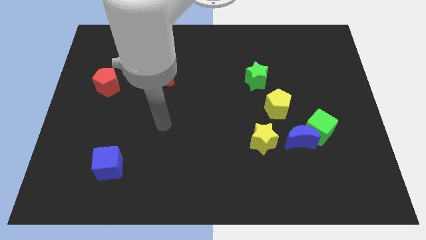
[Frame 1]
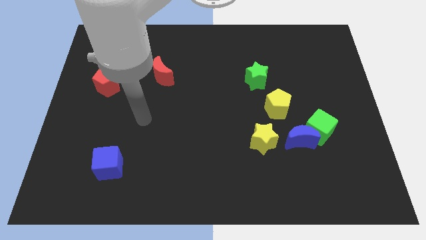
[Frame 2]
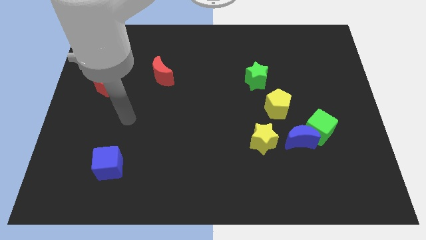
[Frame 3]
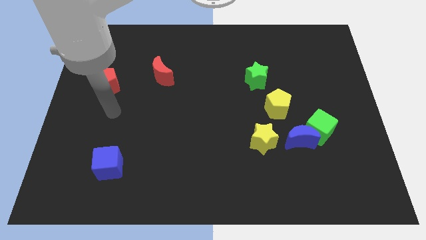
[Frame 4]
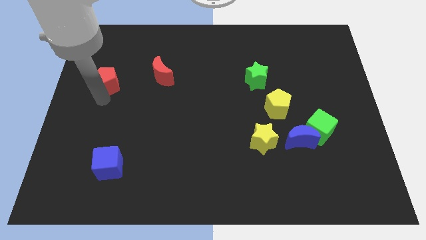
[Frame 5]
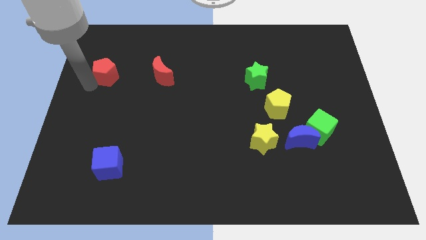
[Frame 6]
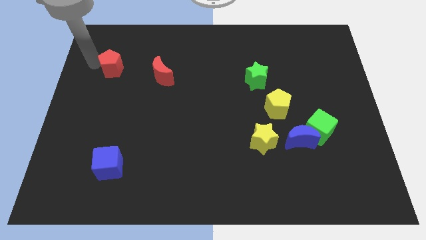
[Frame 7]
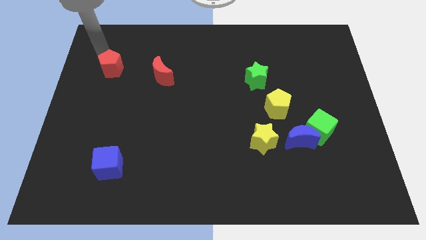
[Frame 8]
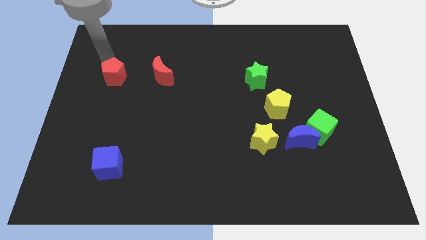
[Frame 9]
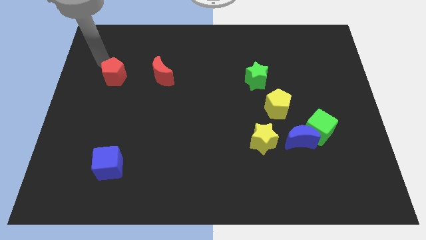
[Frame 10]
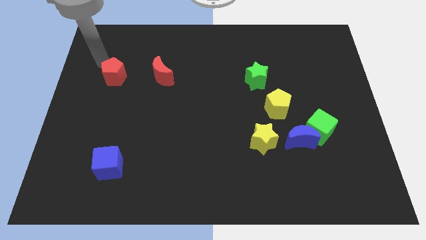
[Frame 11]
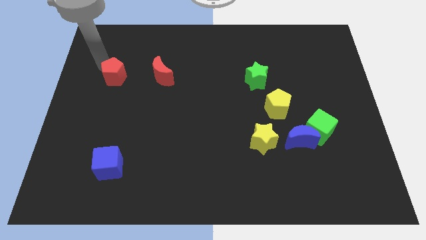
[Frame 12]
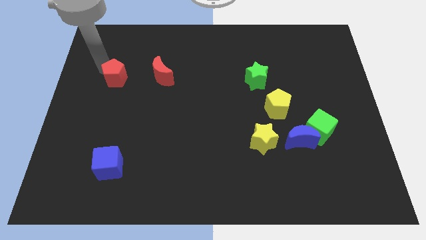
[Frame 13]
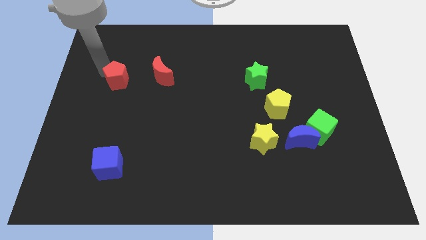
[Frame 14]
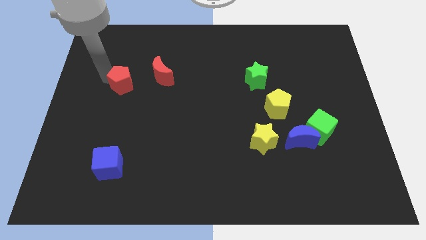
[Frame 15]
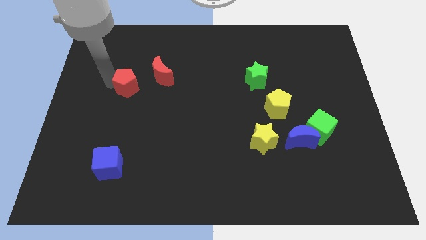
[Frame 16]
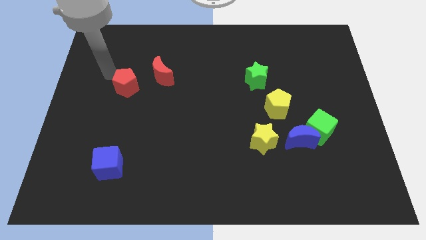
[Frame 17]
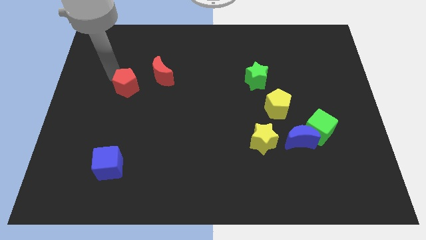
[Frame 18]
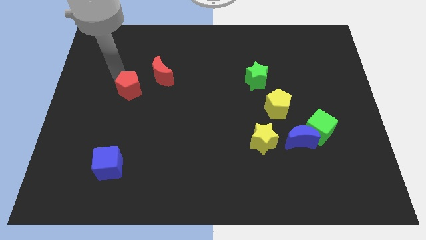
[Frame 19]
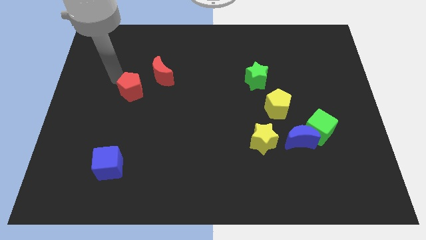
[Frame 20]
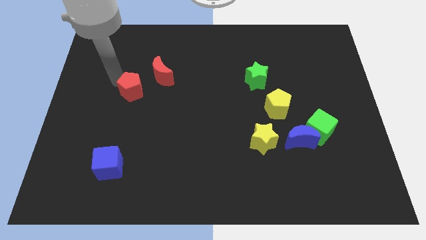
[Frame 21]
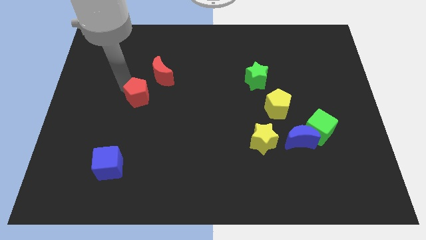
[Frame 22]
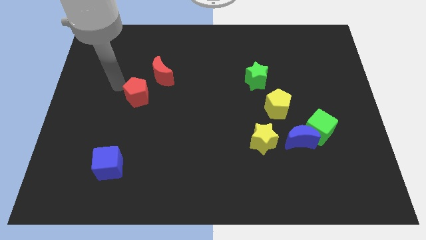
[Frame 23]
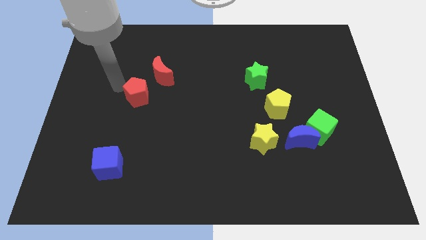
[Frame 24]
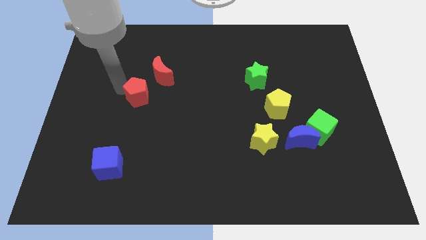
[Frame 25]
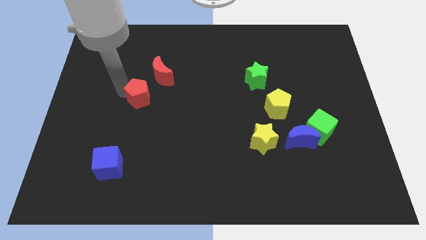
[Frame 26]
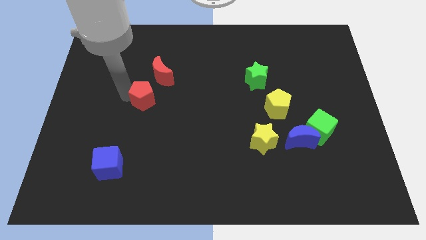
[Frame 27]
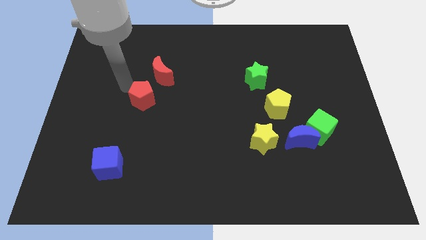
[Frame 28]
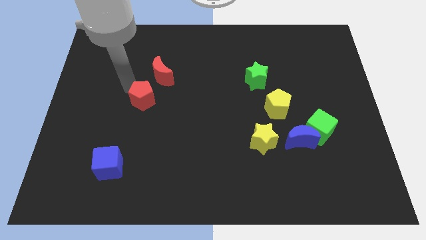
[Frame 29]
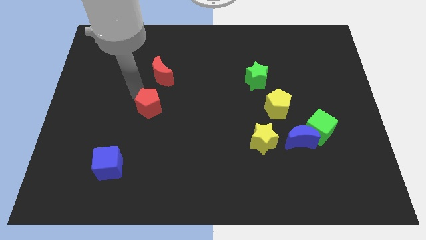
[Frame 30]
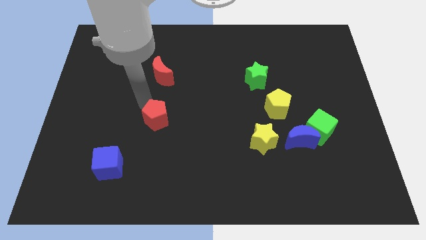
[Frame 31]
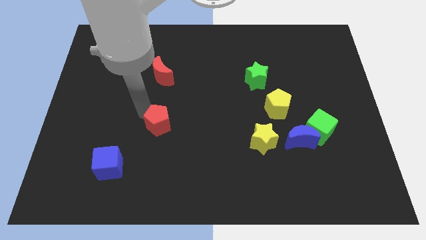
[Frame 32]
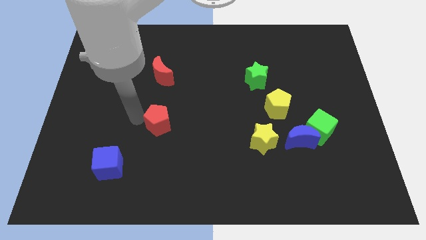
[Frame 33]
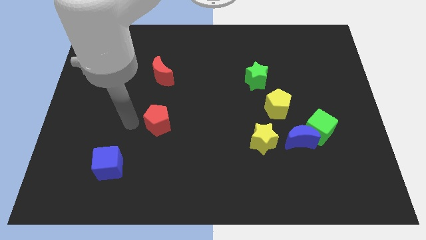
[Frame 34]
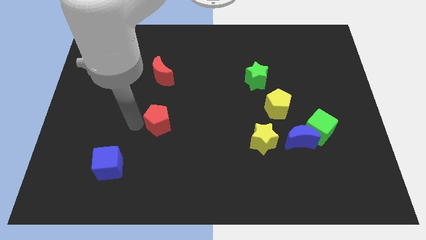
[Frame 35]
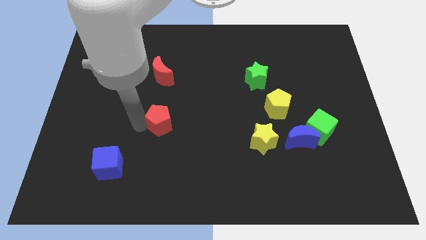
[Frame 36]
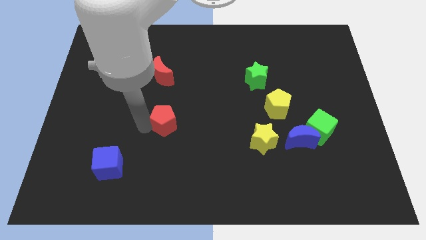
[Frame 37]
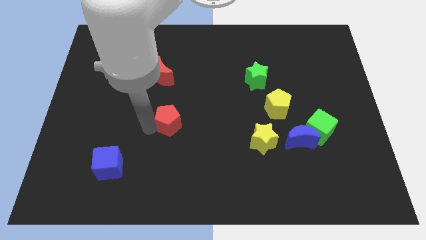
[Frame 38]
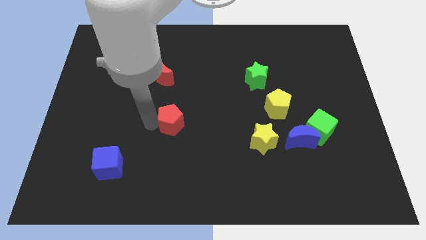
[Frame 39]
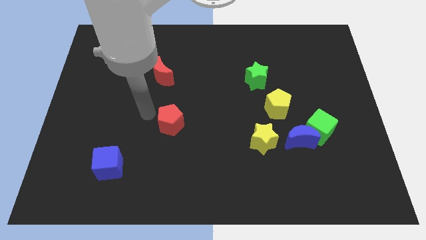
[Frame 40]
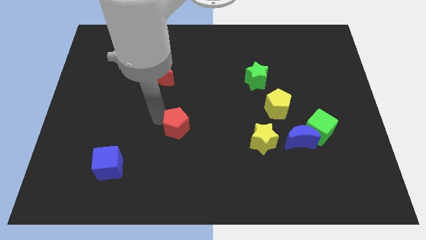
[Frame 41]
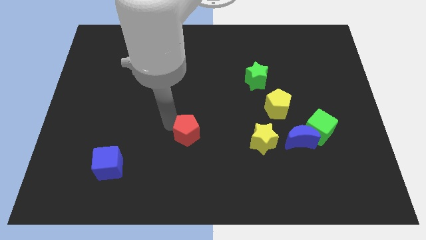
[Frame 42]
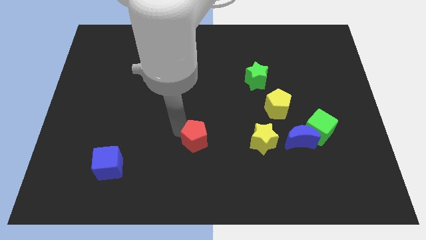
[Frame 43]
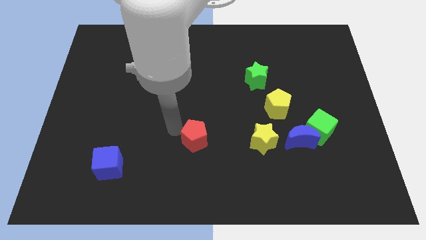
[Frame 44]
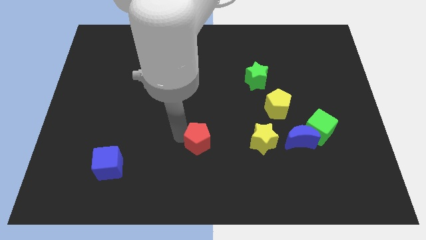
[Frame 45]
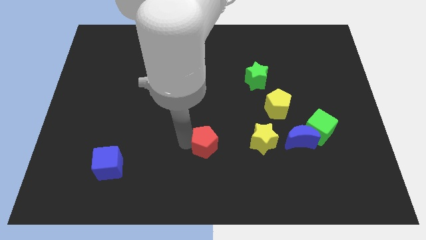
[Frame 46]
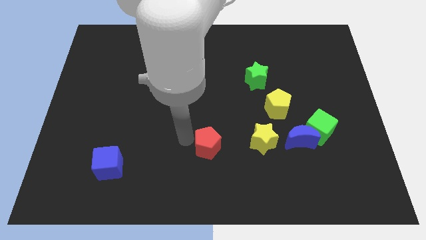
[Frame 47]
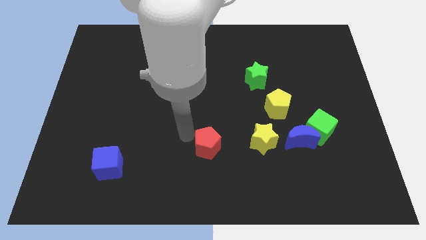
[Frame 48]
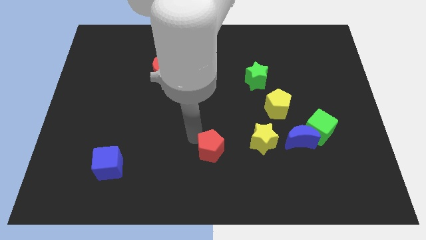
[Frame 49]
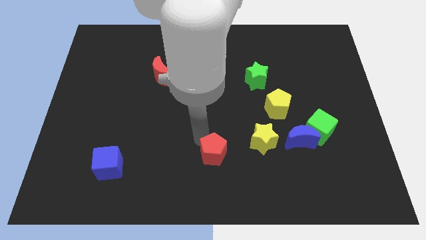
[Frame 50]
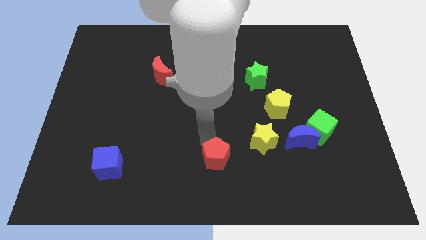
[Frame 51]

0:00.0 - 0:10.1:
put the red pentagon diagonally down and to the left of the yellow star

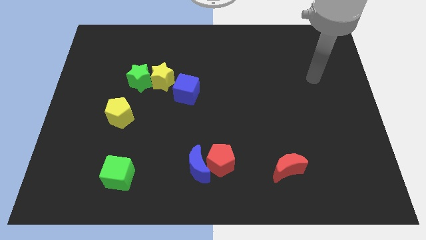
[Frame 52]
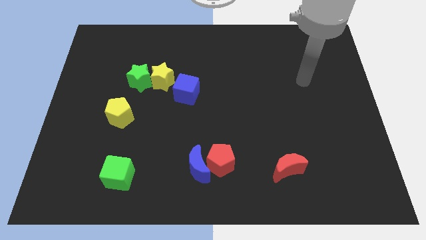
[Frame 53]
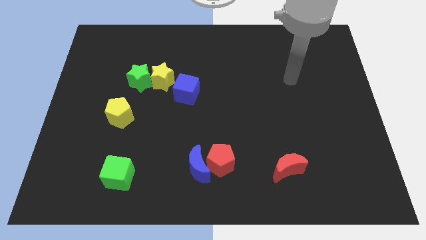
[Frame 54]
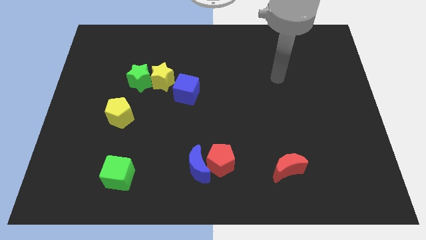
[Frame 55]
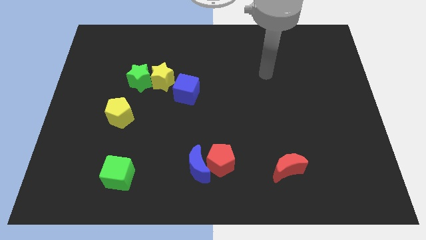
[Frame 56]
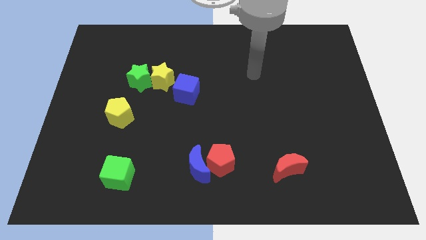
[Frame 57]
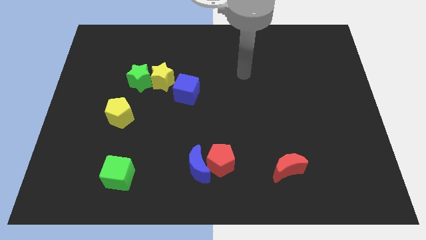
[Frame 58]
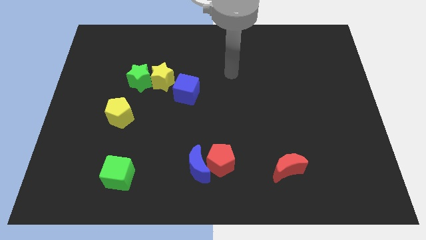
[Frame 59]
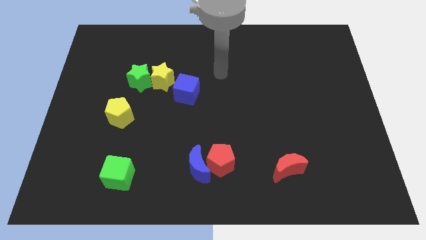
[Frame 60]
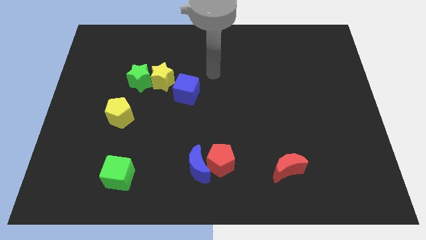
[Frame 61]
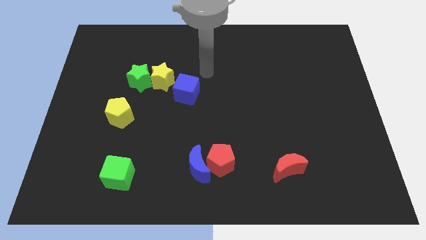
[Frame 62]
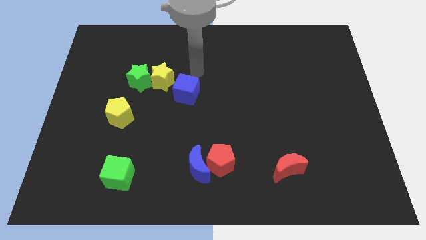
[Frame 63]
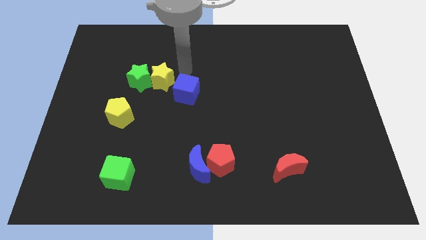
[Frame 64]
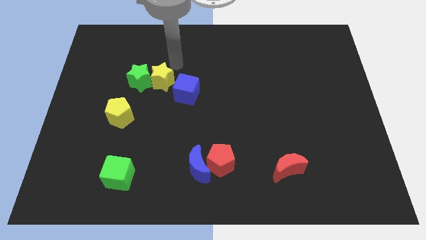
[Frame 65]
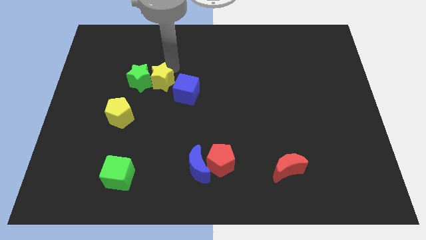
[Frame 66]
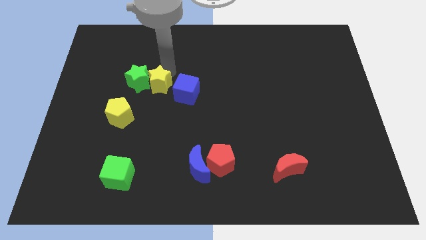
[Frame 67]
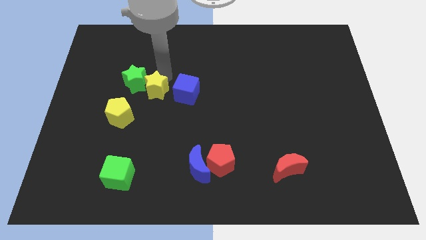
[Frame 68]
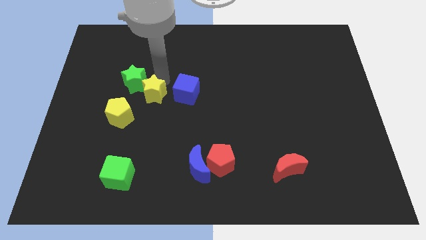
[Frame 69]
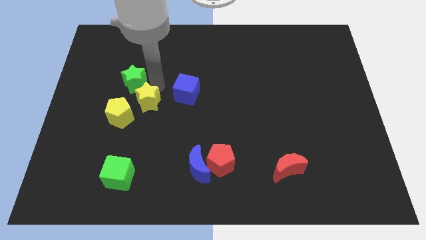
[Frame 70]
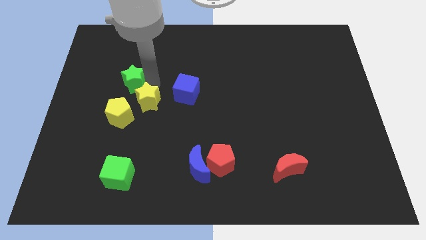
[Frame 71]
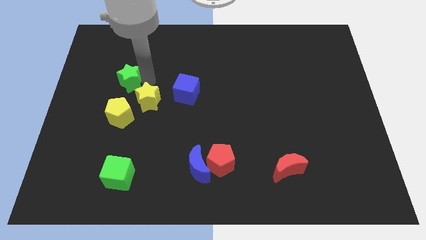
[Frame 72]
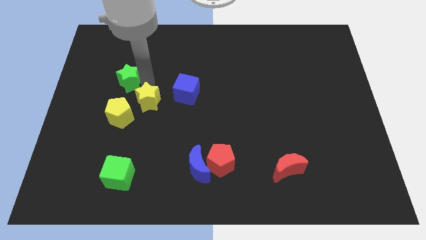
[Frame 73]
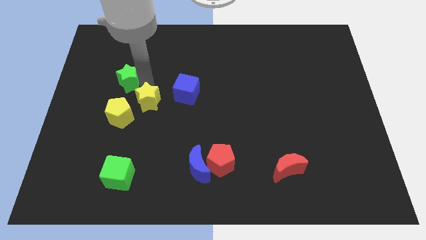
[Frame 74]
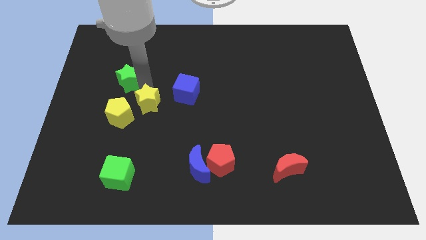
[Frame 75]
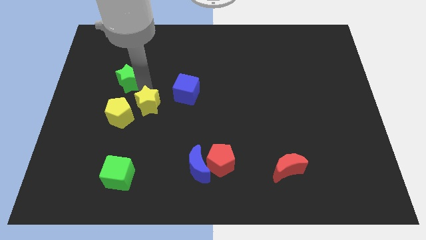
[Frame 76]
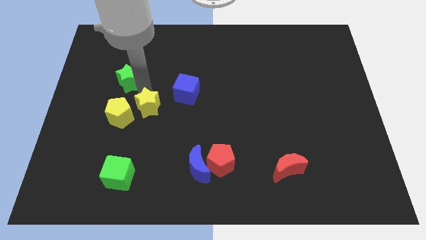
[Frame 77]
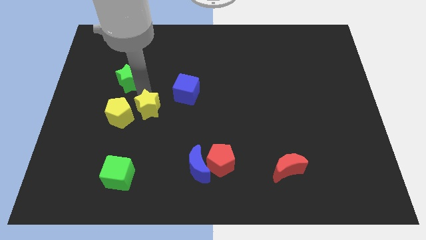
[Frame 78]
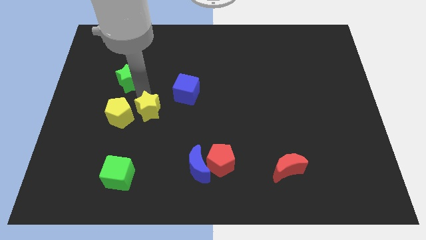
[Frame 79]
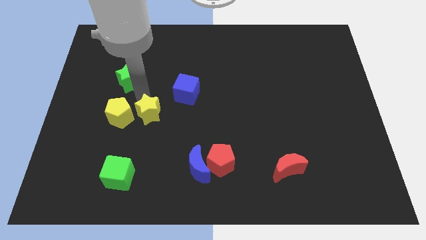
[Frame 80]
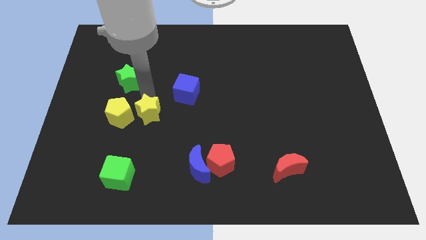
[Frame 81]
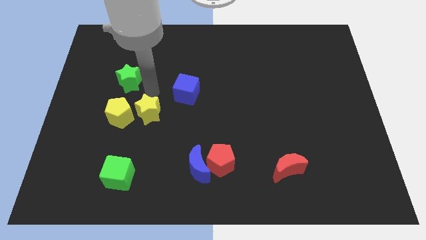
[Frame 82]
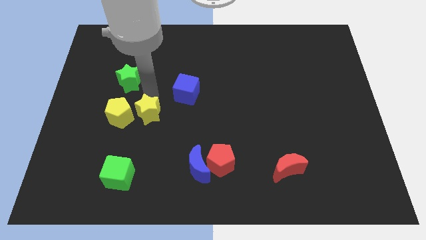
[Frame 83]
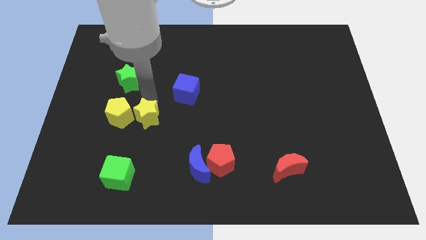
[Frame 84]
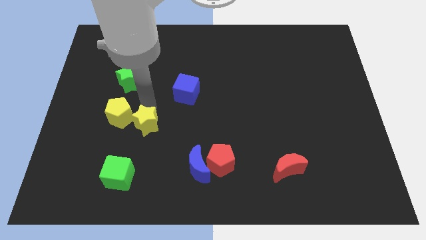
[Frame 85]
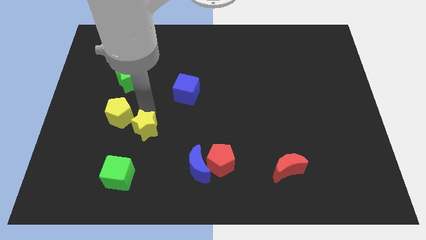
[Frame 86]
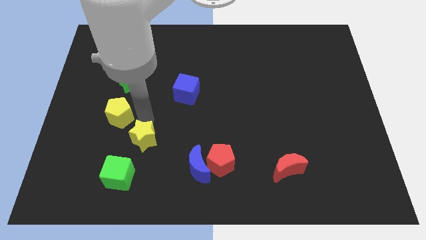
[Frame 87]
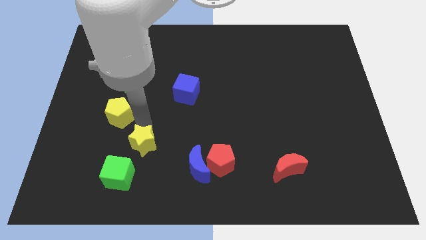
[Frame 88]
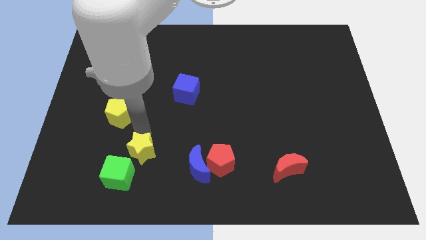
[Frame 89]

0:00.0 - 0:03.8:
move the yellow star left of the blue moon
